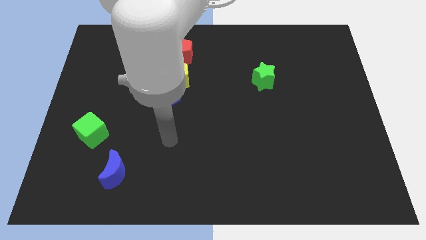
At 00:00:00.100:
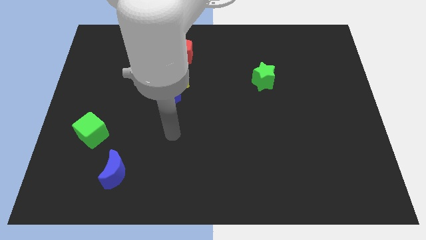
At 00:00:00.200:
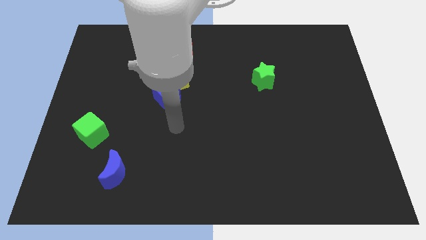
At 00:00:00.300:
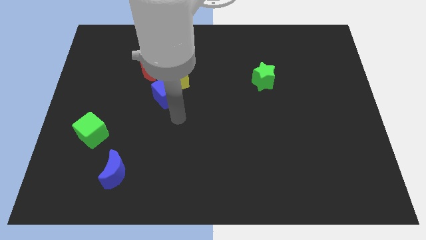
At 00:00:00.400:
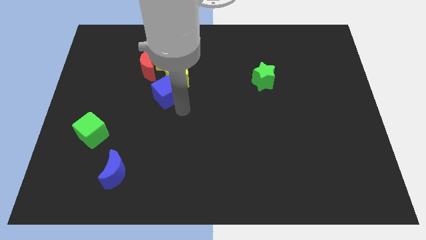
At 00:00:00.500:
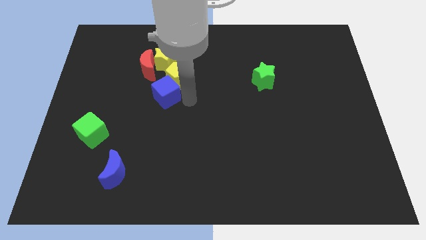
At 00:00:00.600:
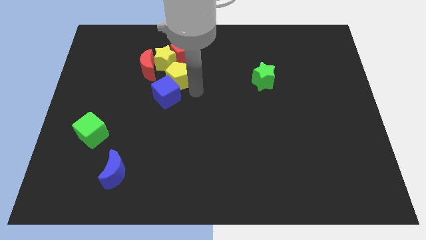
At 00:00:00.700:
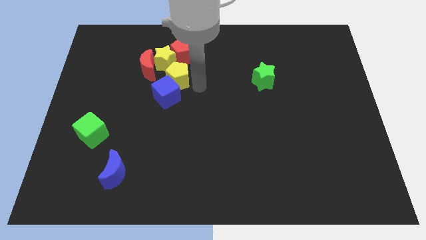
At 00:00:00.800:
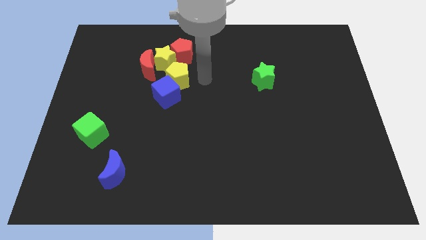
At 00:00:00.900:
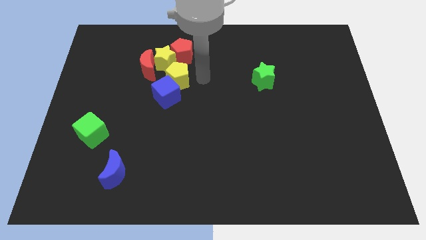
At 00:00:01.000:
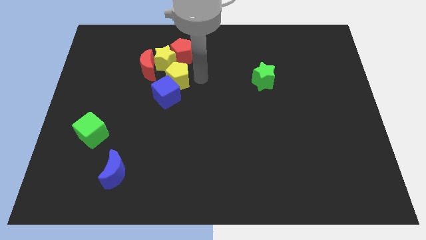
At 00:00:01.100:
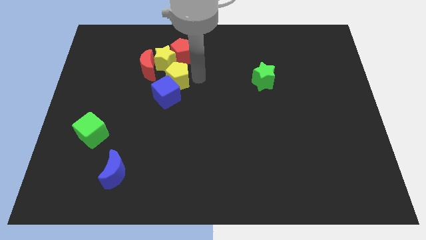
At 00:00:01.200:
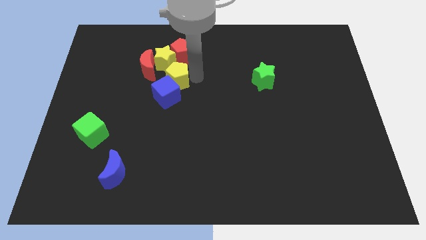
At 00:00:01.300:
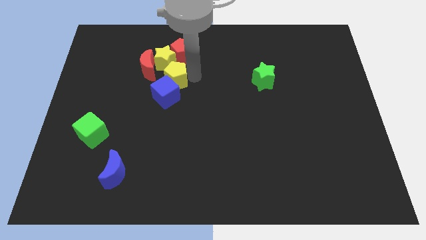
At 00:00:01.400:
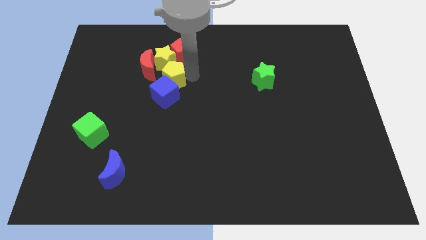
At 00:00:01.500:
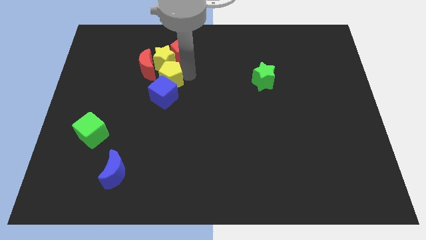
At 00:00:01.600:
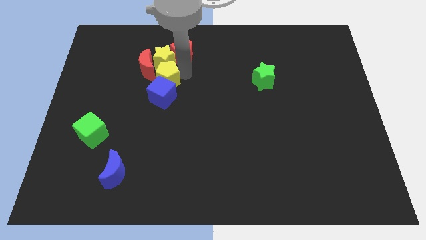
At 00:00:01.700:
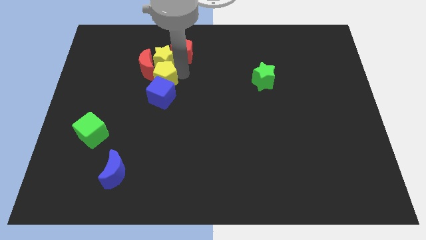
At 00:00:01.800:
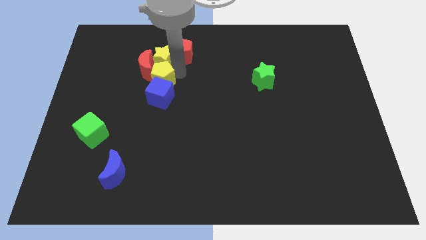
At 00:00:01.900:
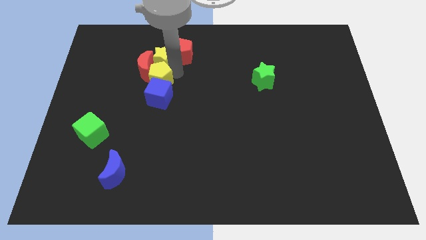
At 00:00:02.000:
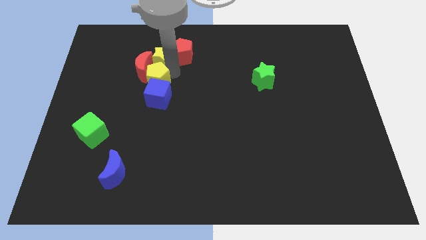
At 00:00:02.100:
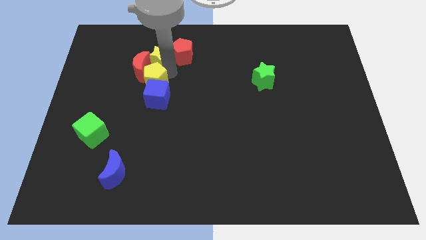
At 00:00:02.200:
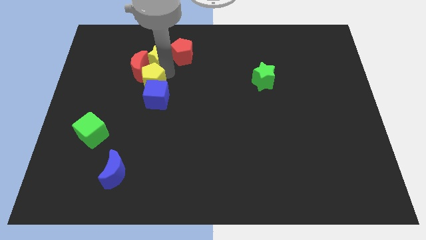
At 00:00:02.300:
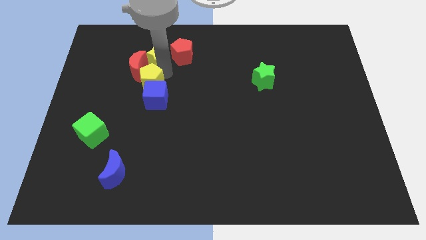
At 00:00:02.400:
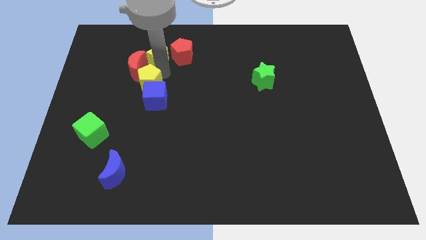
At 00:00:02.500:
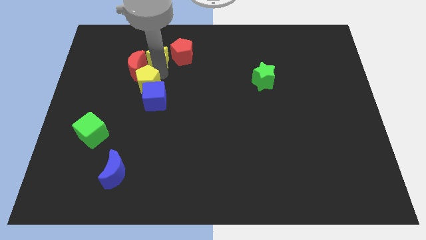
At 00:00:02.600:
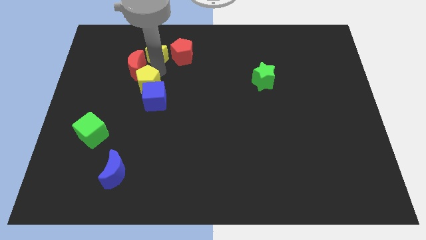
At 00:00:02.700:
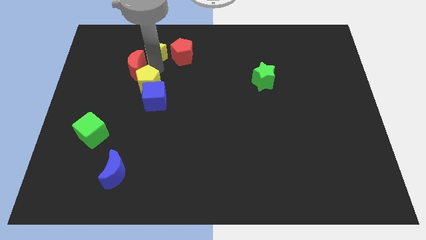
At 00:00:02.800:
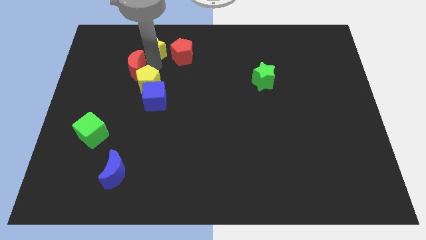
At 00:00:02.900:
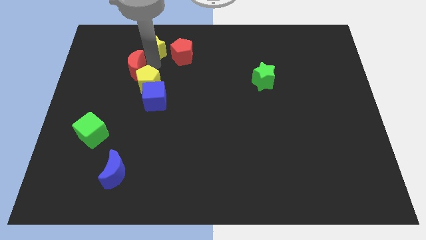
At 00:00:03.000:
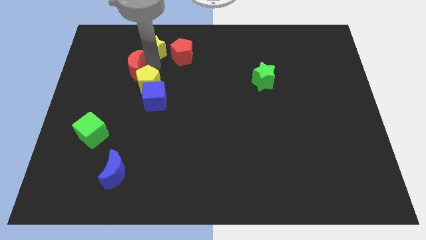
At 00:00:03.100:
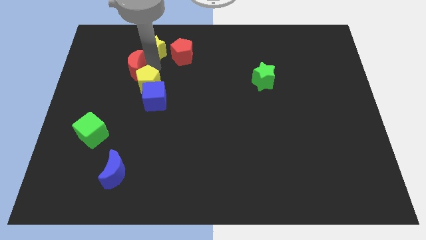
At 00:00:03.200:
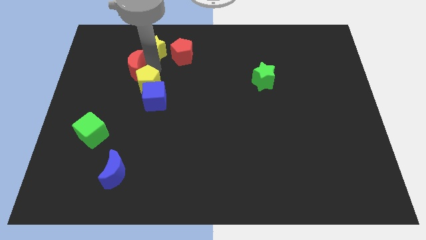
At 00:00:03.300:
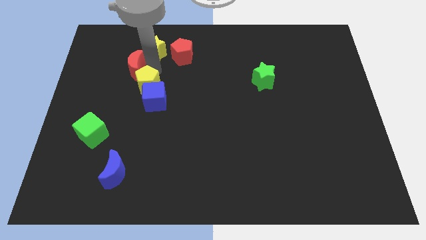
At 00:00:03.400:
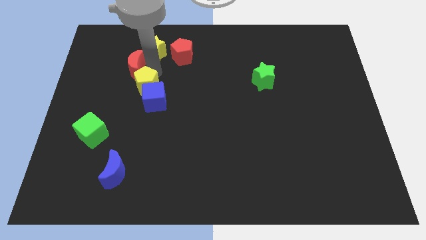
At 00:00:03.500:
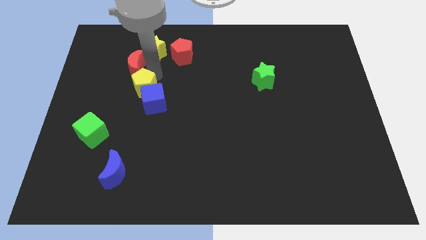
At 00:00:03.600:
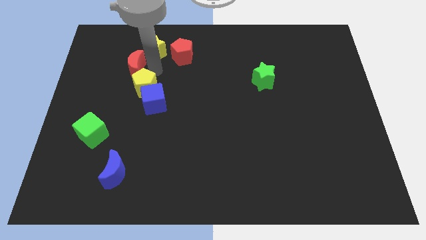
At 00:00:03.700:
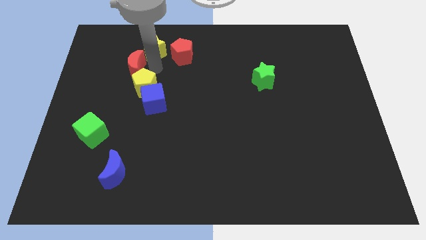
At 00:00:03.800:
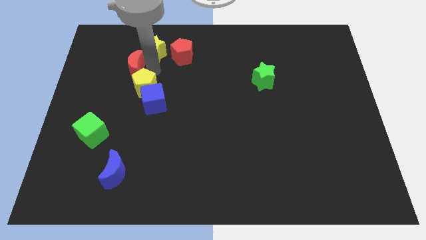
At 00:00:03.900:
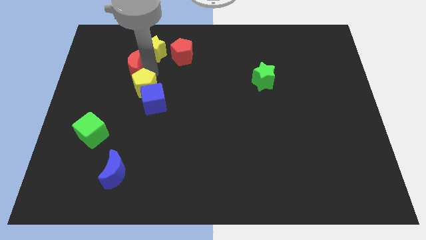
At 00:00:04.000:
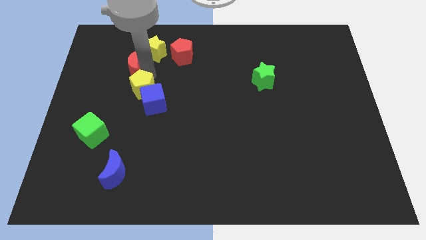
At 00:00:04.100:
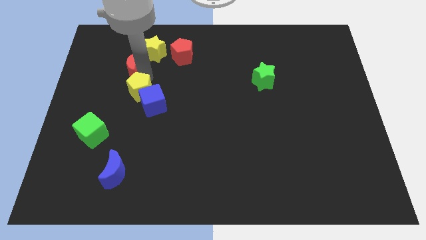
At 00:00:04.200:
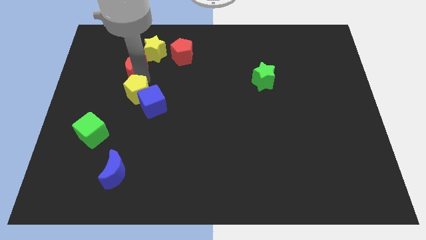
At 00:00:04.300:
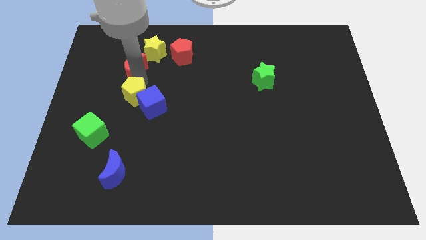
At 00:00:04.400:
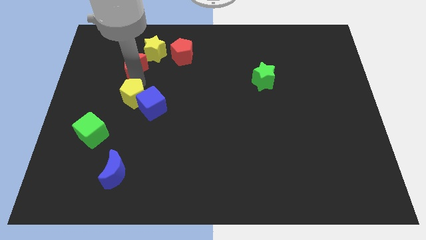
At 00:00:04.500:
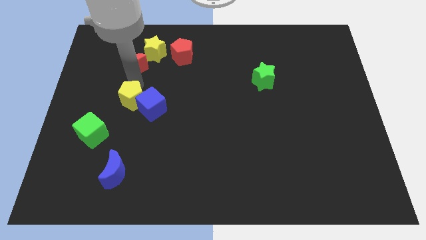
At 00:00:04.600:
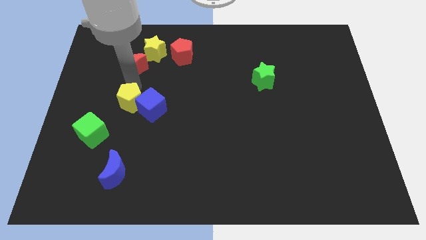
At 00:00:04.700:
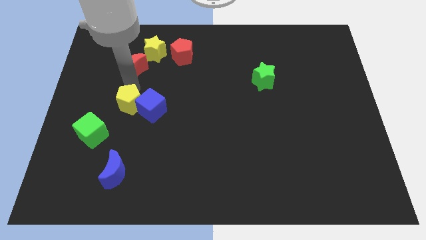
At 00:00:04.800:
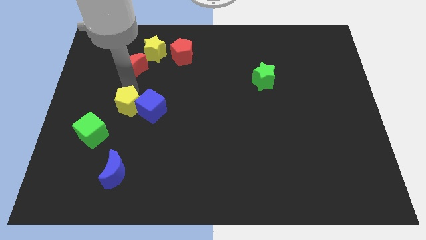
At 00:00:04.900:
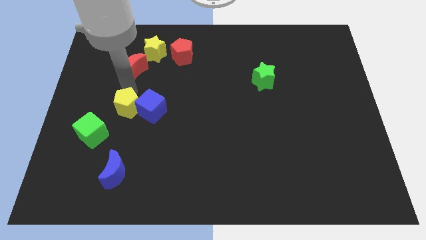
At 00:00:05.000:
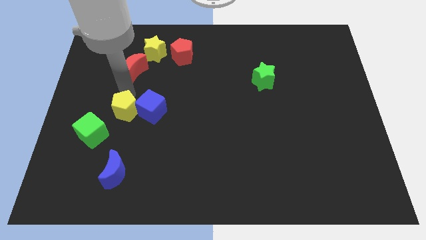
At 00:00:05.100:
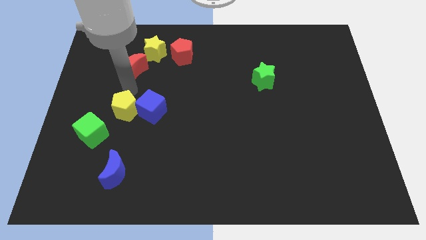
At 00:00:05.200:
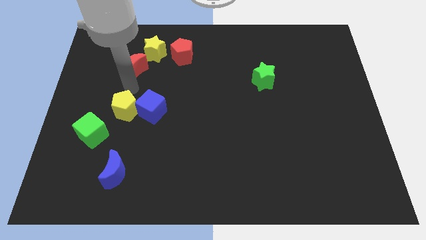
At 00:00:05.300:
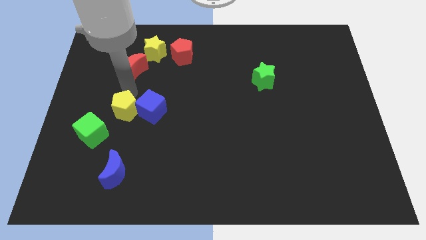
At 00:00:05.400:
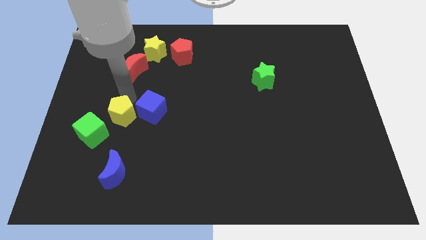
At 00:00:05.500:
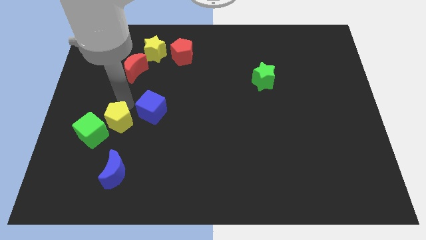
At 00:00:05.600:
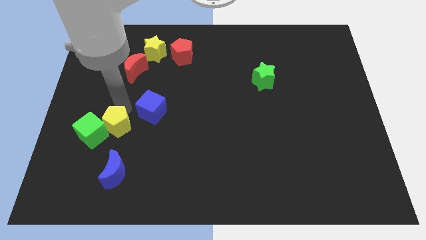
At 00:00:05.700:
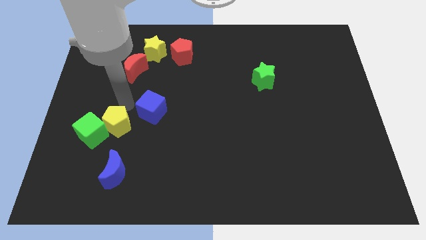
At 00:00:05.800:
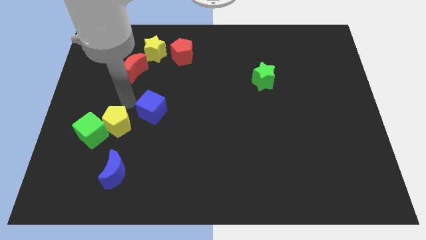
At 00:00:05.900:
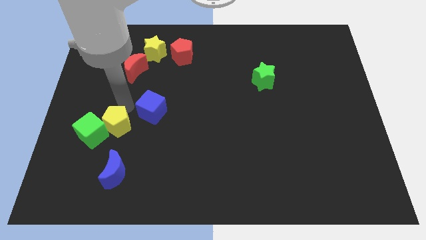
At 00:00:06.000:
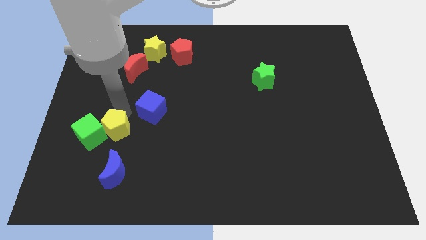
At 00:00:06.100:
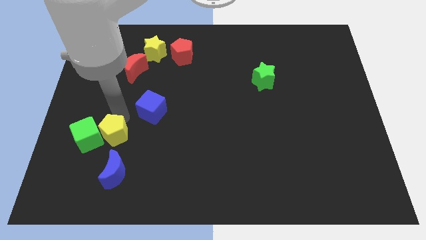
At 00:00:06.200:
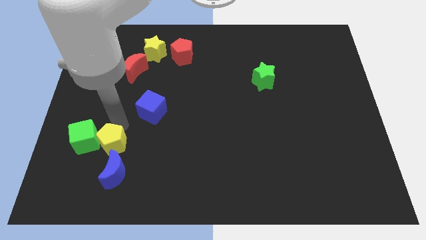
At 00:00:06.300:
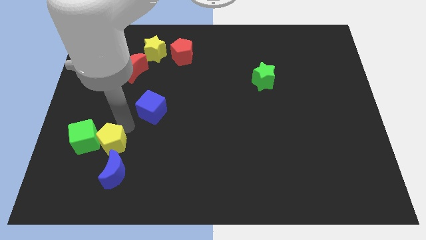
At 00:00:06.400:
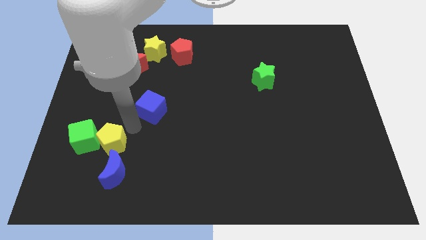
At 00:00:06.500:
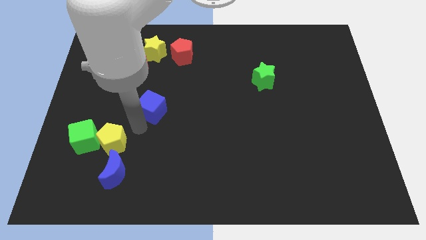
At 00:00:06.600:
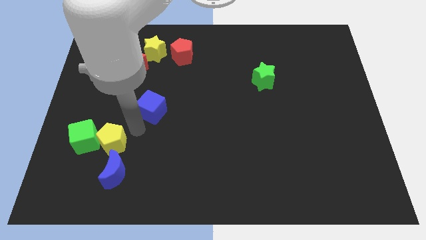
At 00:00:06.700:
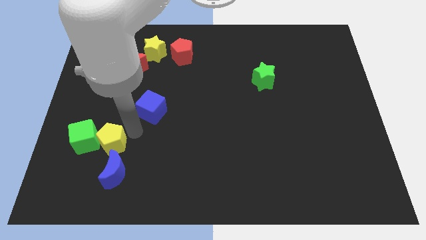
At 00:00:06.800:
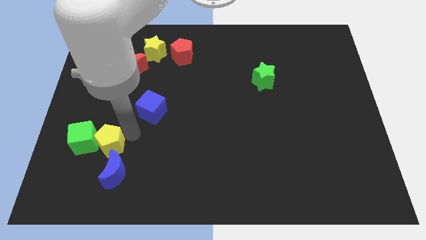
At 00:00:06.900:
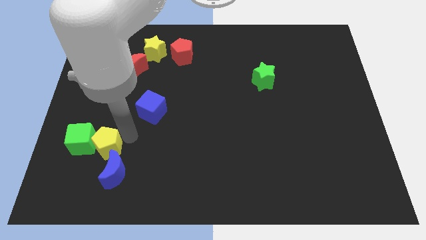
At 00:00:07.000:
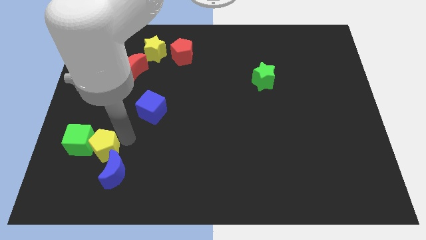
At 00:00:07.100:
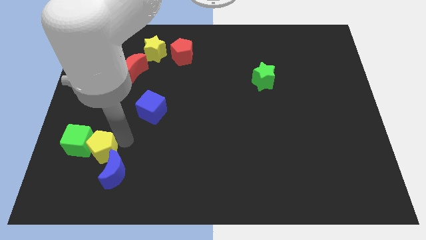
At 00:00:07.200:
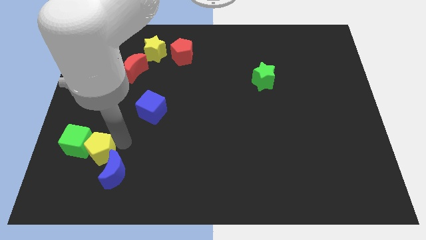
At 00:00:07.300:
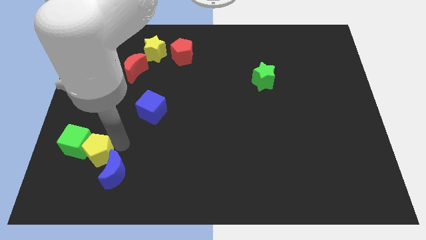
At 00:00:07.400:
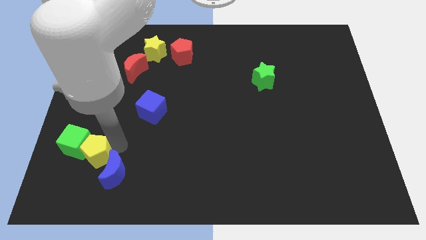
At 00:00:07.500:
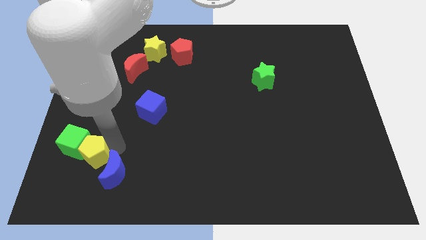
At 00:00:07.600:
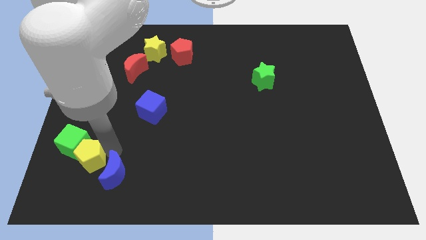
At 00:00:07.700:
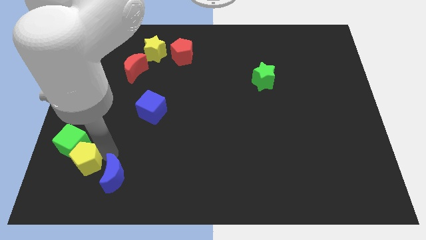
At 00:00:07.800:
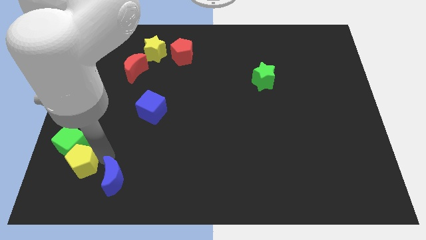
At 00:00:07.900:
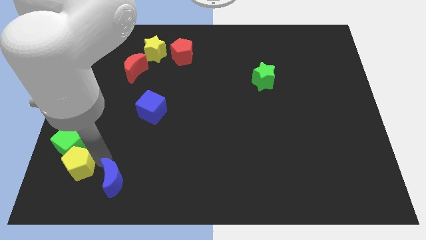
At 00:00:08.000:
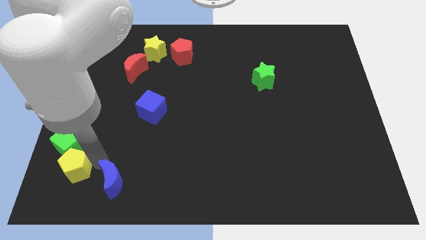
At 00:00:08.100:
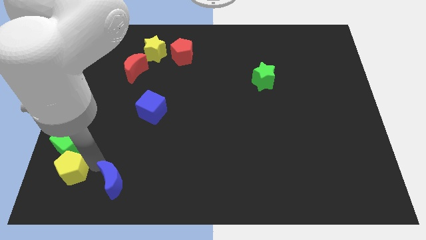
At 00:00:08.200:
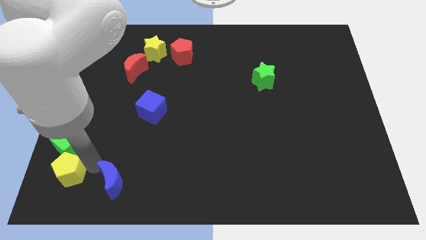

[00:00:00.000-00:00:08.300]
put the yellow pentagon to the bottom left of the board
